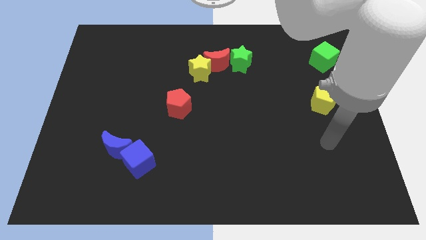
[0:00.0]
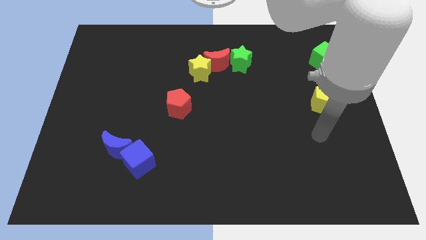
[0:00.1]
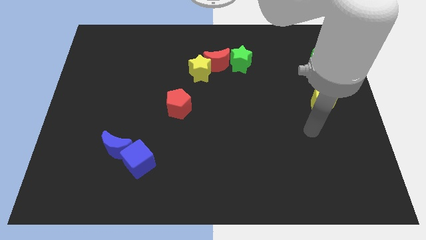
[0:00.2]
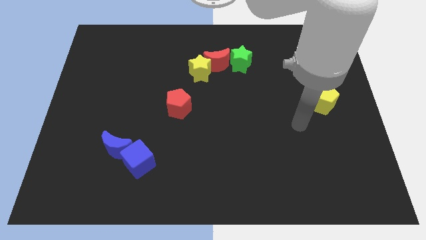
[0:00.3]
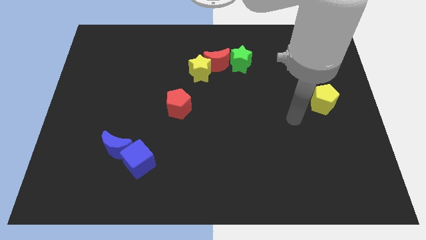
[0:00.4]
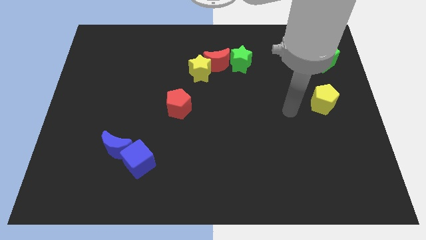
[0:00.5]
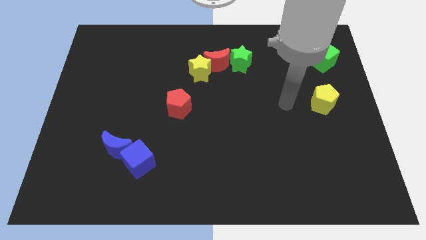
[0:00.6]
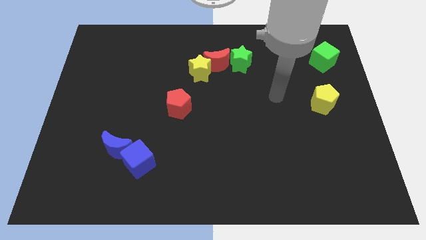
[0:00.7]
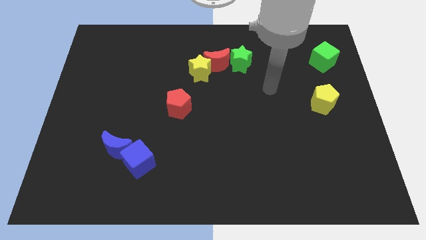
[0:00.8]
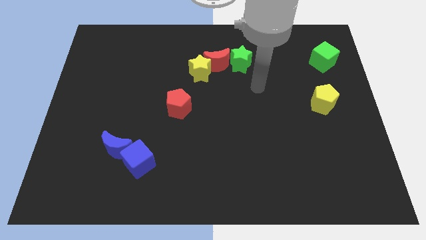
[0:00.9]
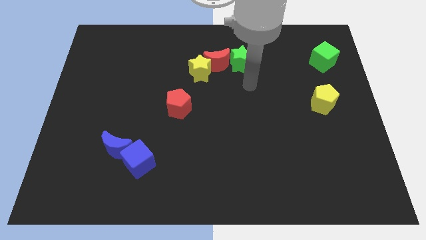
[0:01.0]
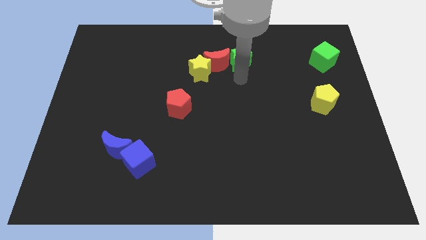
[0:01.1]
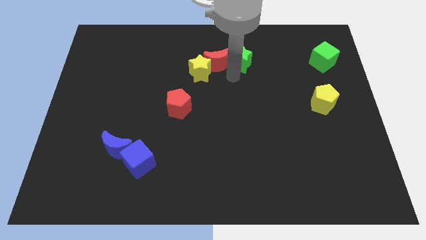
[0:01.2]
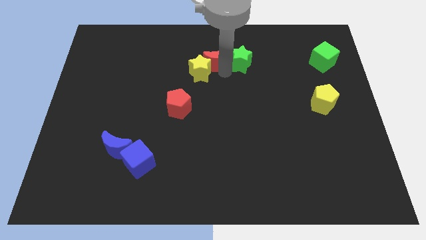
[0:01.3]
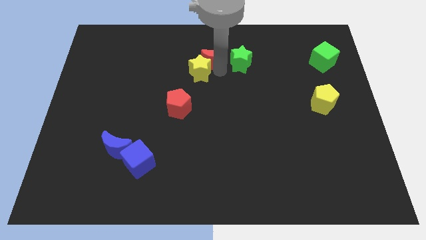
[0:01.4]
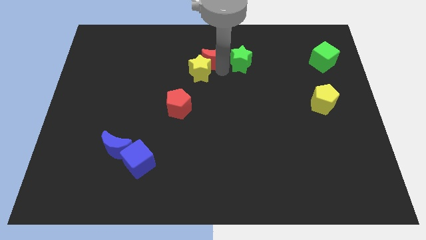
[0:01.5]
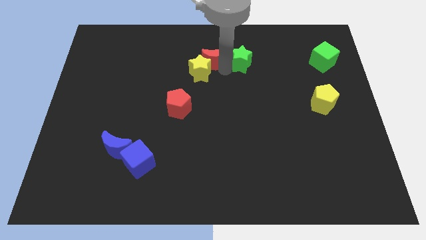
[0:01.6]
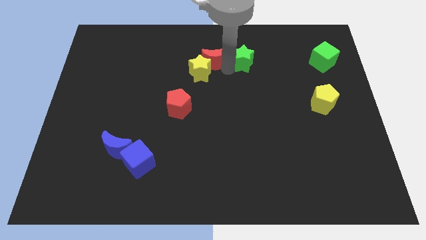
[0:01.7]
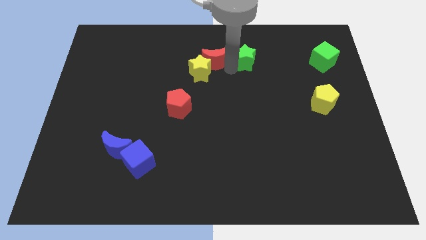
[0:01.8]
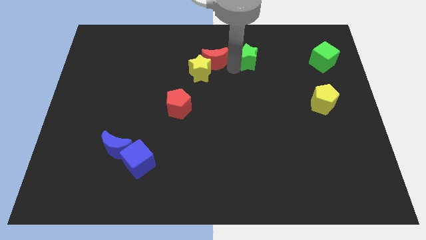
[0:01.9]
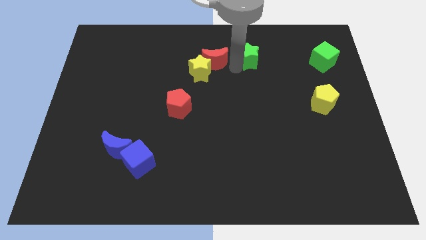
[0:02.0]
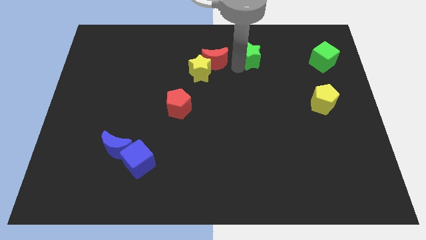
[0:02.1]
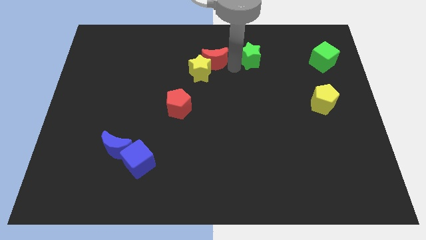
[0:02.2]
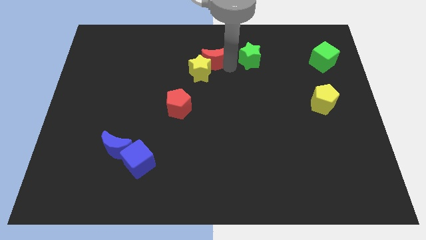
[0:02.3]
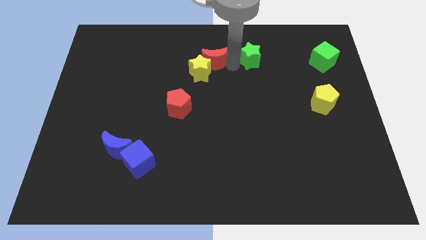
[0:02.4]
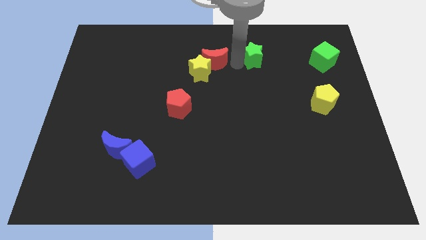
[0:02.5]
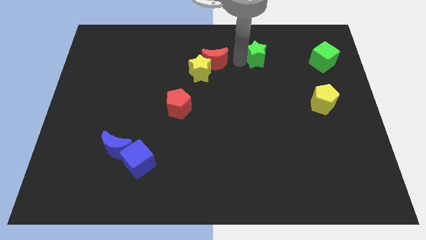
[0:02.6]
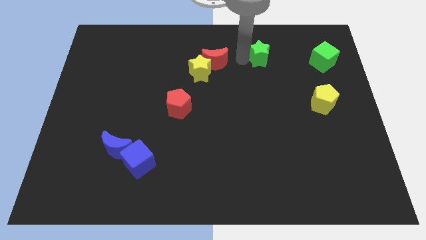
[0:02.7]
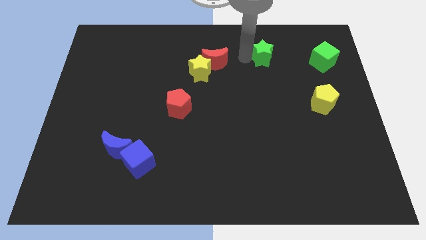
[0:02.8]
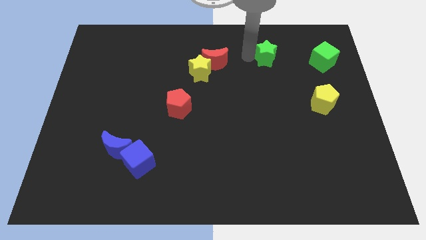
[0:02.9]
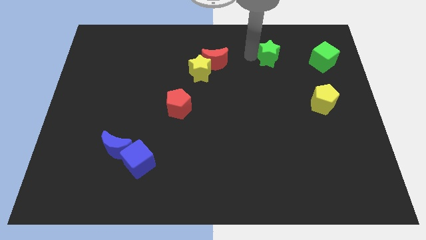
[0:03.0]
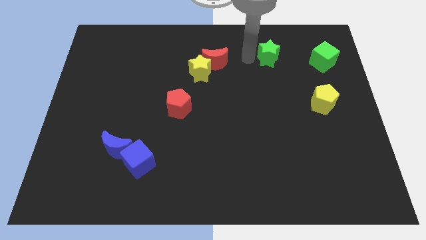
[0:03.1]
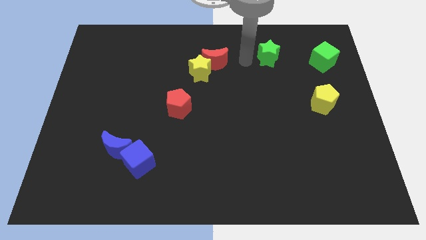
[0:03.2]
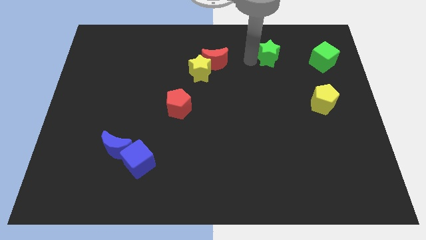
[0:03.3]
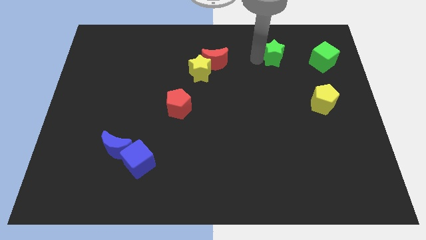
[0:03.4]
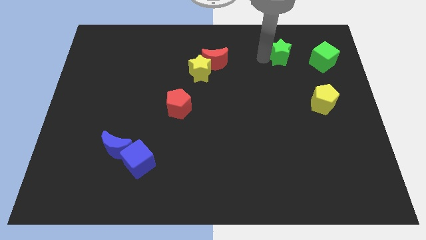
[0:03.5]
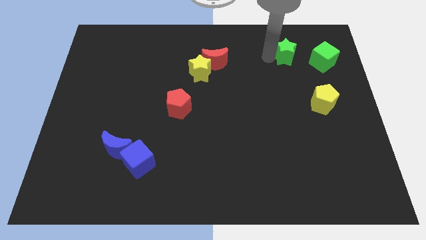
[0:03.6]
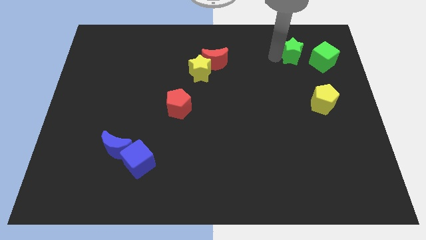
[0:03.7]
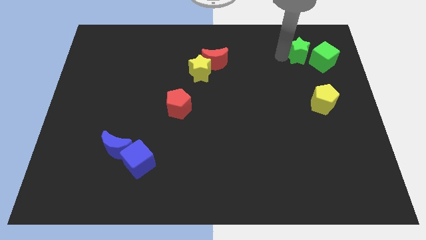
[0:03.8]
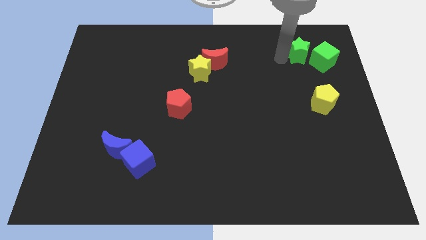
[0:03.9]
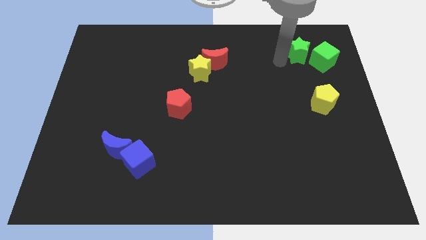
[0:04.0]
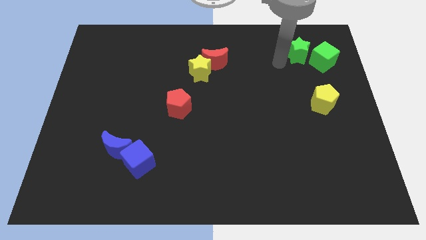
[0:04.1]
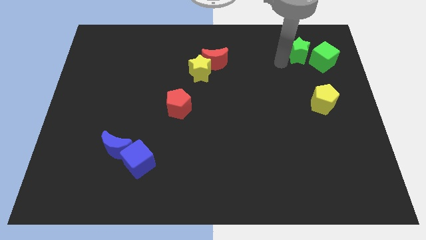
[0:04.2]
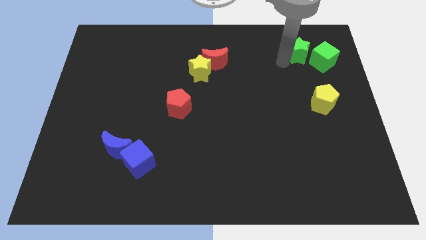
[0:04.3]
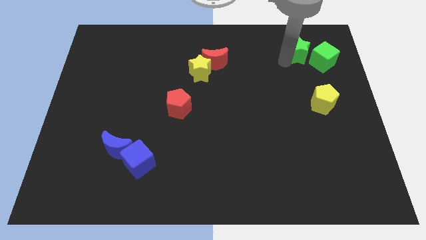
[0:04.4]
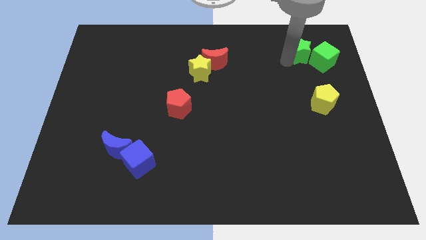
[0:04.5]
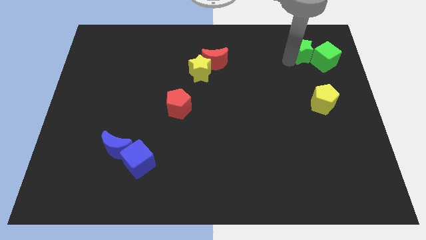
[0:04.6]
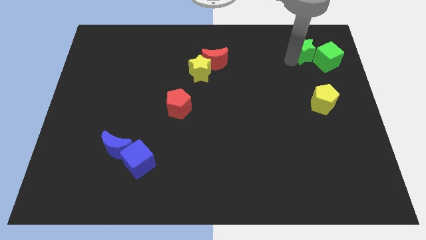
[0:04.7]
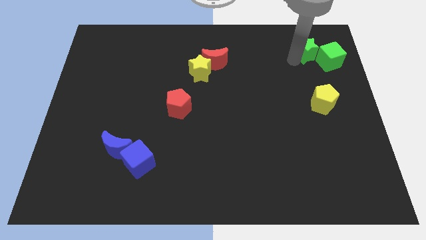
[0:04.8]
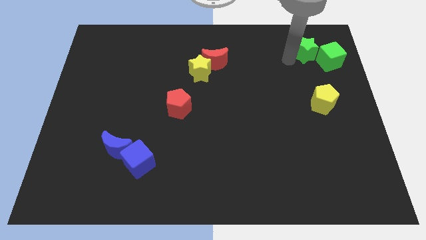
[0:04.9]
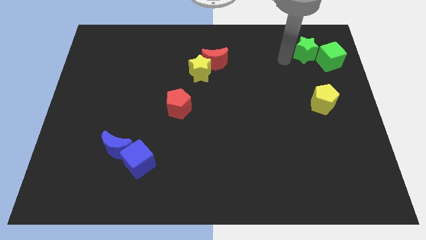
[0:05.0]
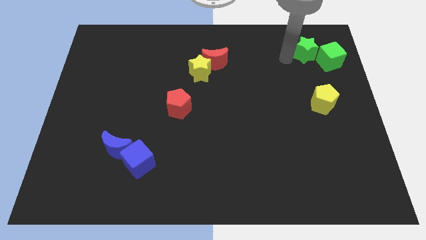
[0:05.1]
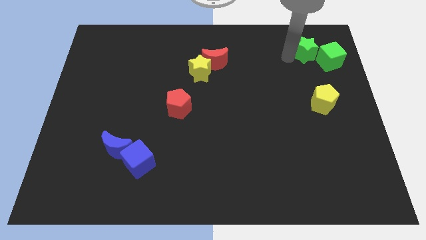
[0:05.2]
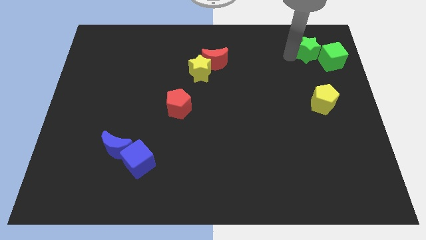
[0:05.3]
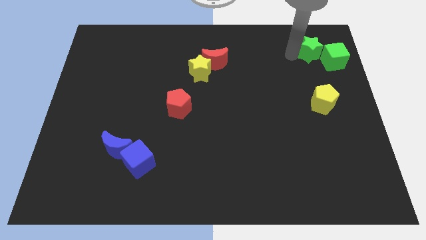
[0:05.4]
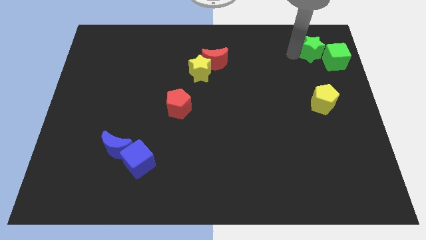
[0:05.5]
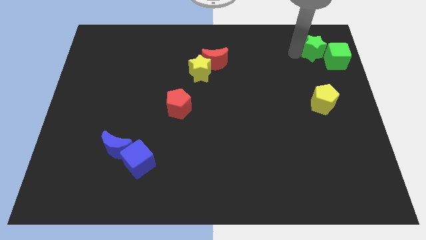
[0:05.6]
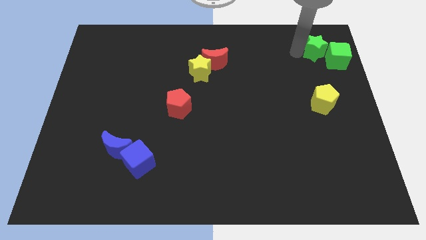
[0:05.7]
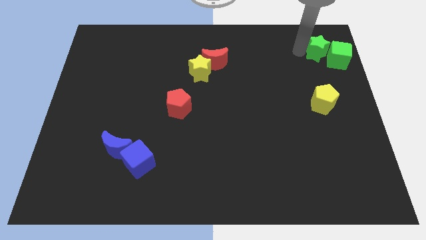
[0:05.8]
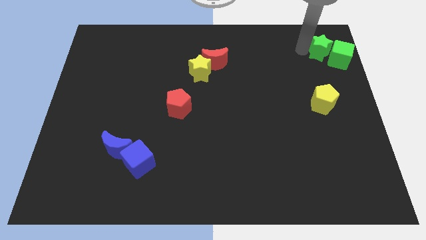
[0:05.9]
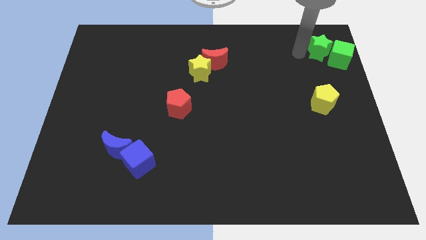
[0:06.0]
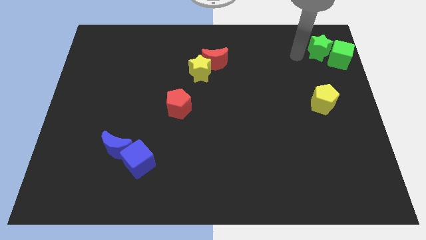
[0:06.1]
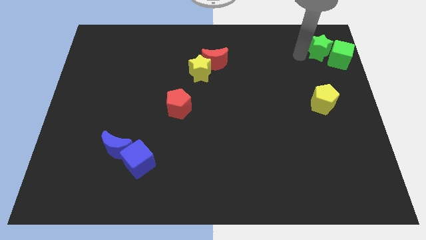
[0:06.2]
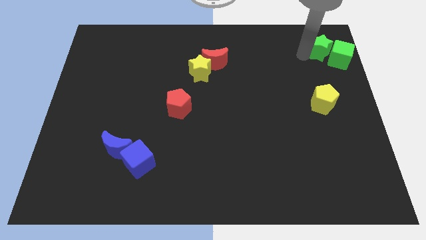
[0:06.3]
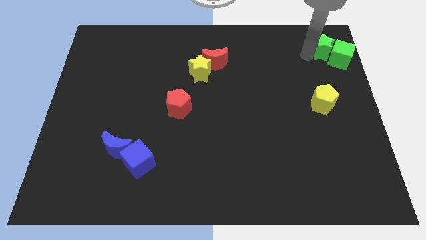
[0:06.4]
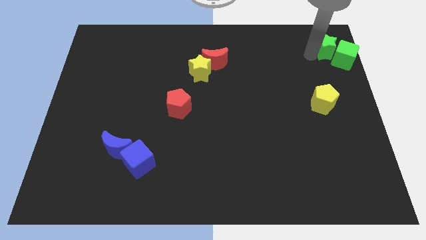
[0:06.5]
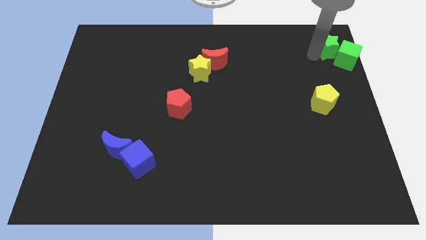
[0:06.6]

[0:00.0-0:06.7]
slide the green star to the upper right corner
